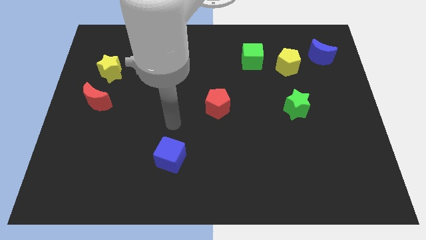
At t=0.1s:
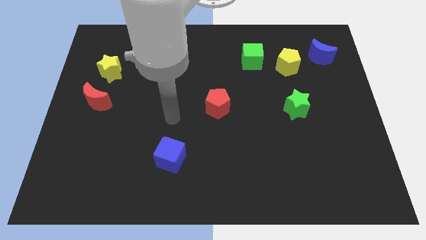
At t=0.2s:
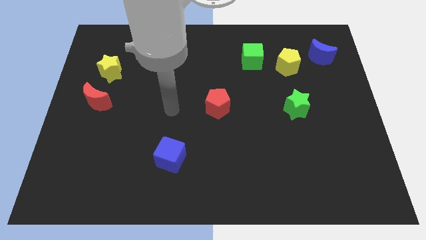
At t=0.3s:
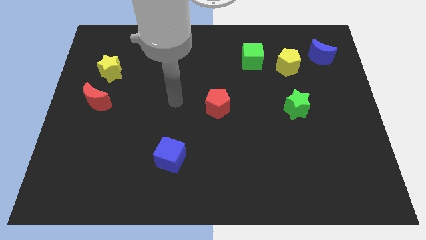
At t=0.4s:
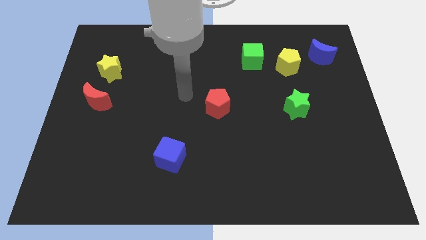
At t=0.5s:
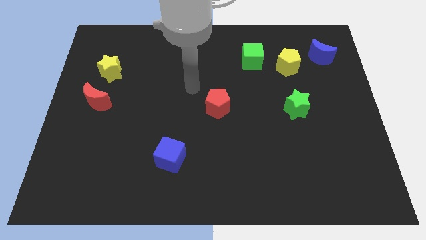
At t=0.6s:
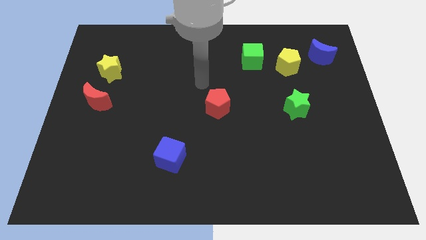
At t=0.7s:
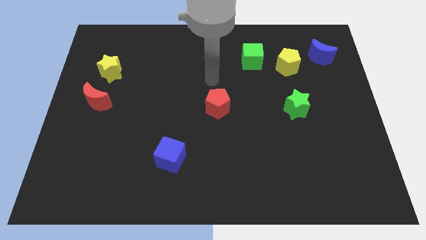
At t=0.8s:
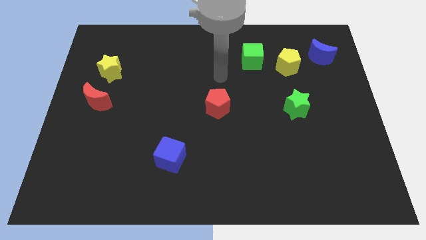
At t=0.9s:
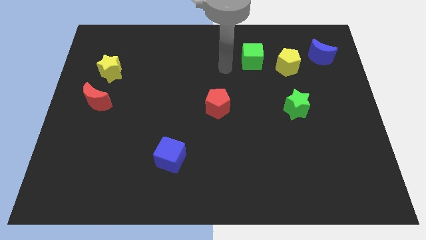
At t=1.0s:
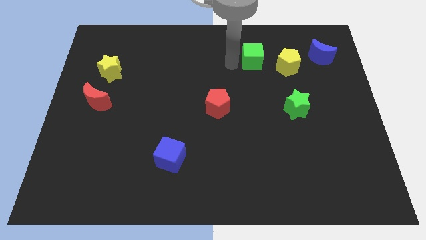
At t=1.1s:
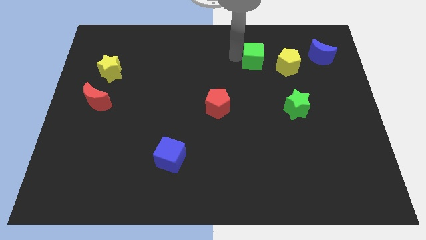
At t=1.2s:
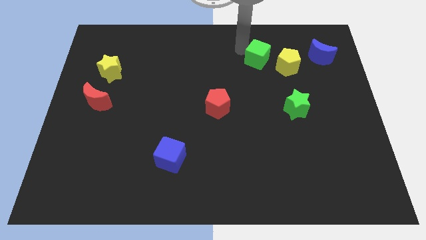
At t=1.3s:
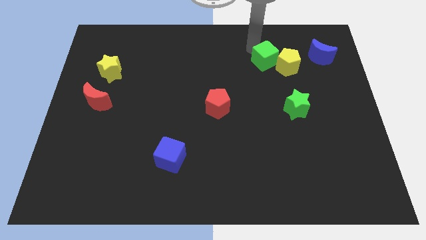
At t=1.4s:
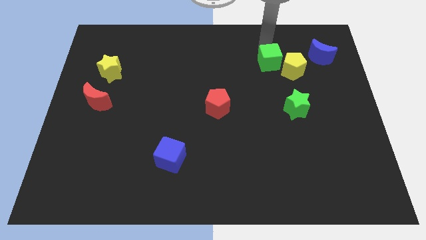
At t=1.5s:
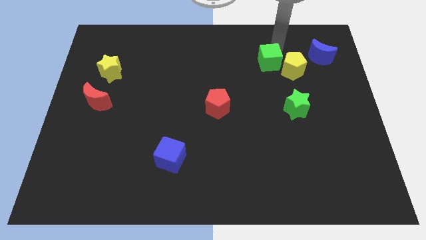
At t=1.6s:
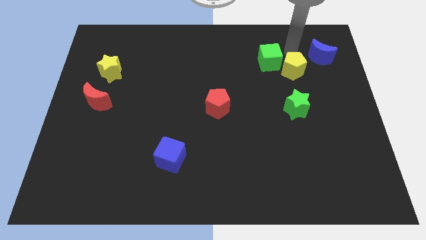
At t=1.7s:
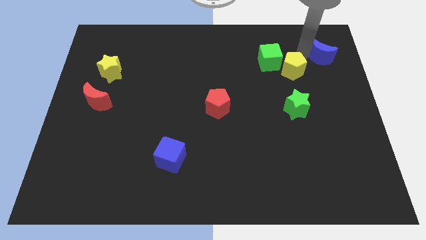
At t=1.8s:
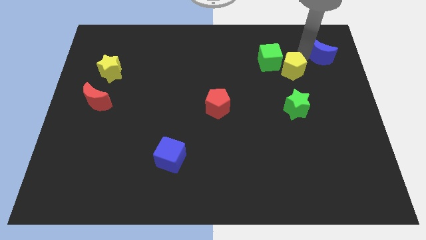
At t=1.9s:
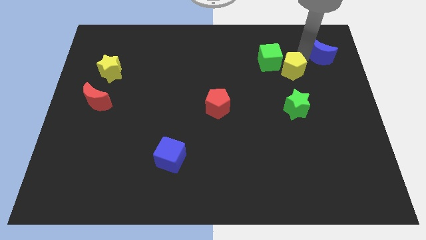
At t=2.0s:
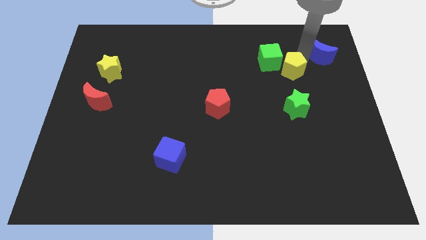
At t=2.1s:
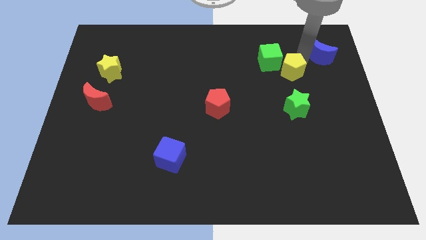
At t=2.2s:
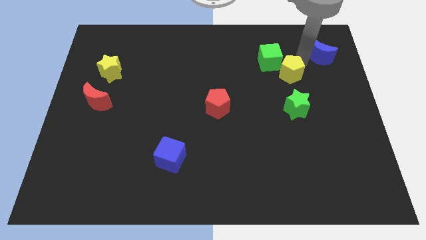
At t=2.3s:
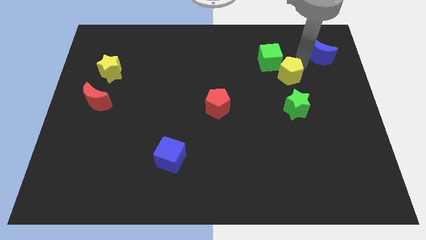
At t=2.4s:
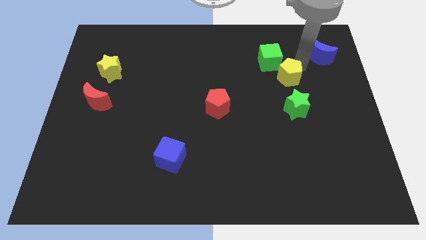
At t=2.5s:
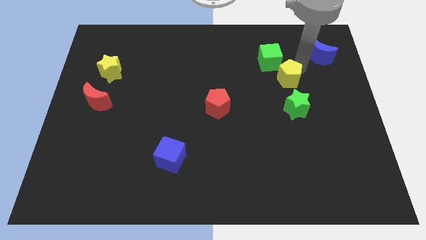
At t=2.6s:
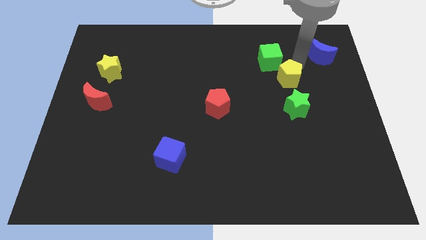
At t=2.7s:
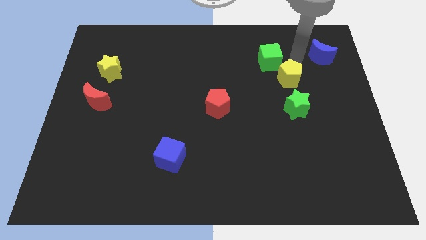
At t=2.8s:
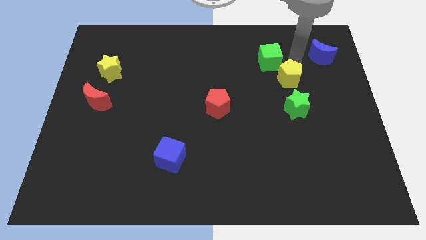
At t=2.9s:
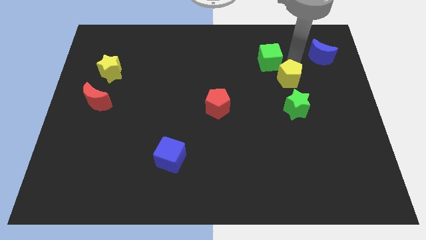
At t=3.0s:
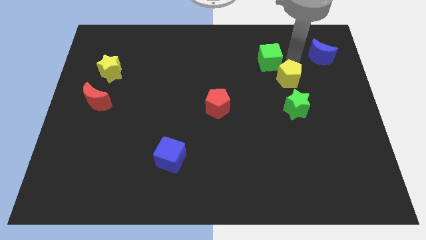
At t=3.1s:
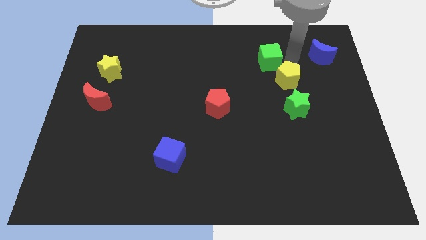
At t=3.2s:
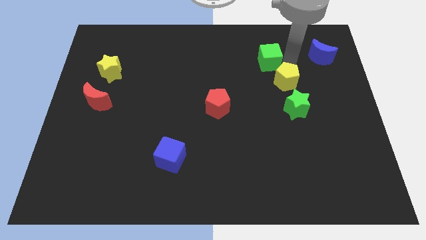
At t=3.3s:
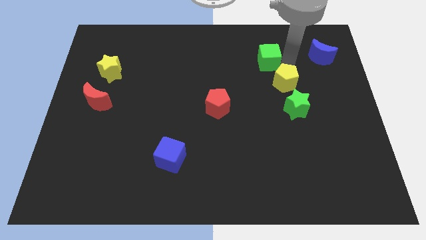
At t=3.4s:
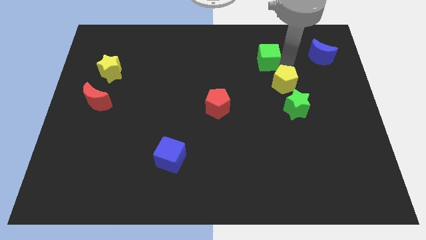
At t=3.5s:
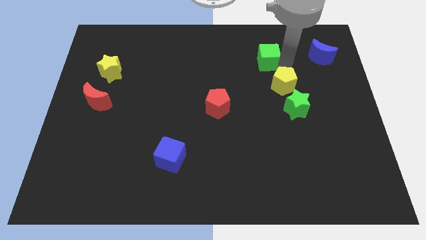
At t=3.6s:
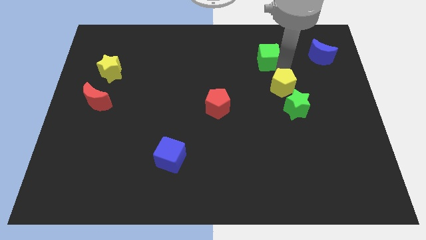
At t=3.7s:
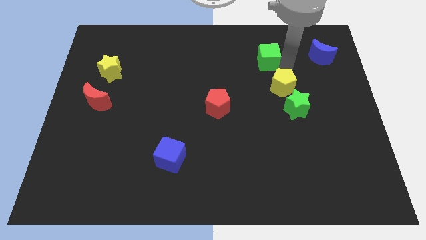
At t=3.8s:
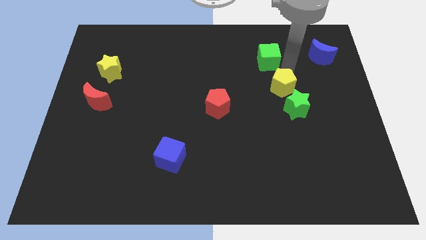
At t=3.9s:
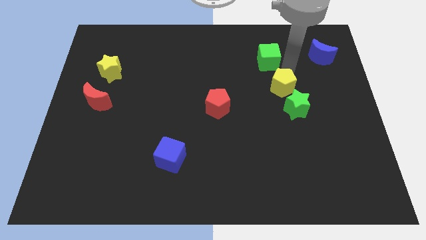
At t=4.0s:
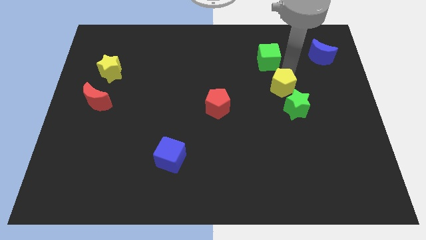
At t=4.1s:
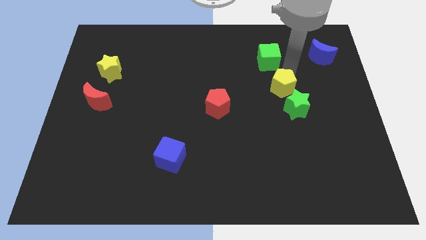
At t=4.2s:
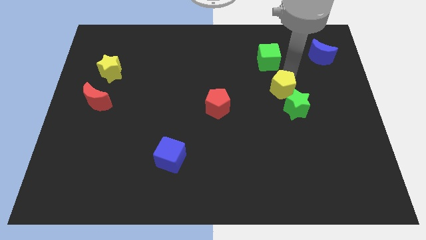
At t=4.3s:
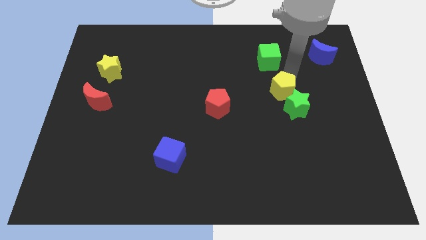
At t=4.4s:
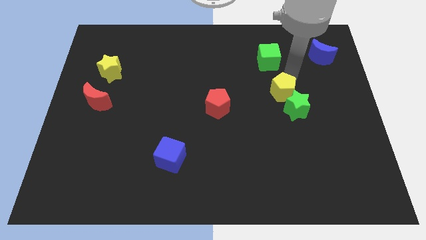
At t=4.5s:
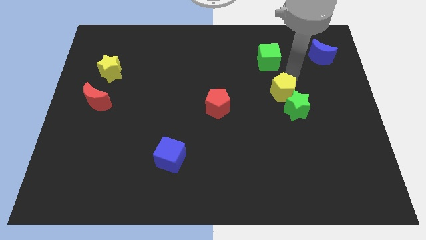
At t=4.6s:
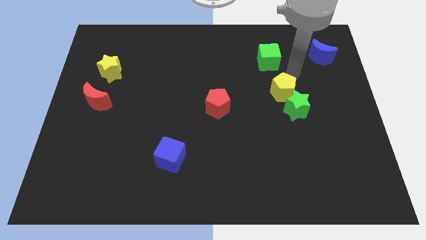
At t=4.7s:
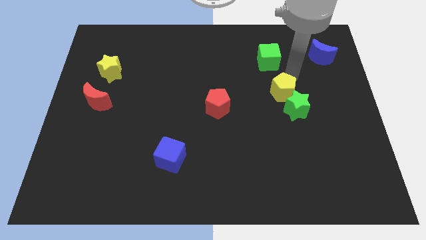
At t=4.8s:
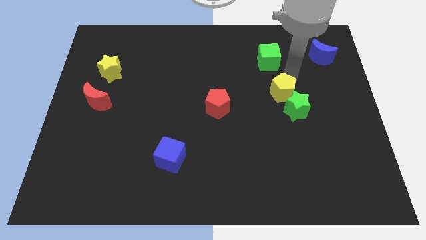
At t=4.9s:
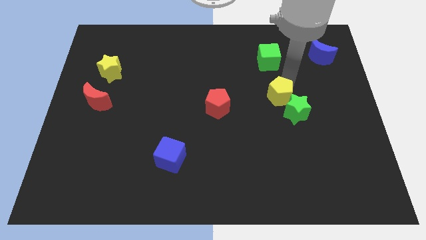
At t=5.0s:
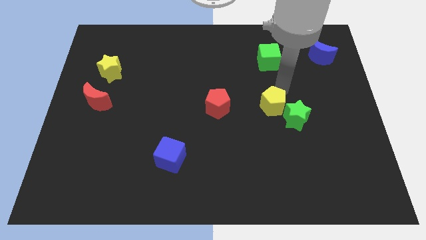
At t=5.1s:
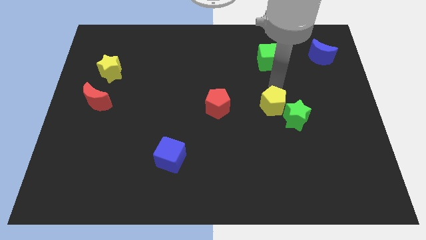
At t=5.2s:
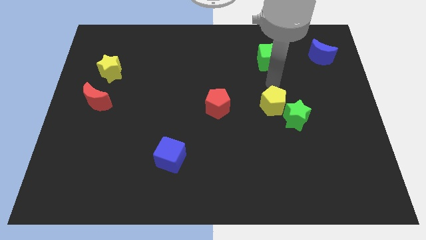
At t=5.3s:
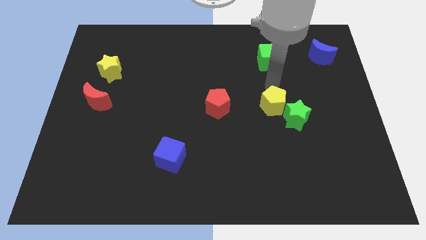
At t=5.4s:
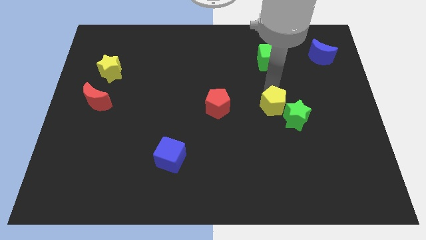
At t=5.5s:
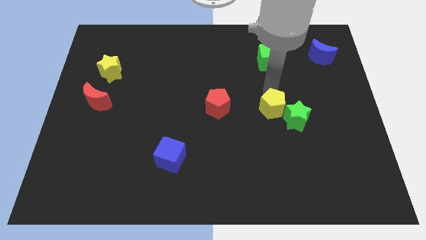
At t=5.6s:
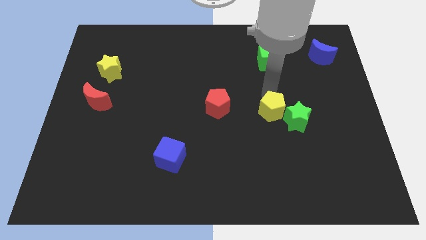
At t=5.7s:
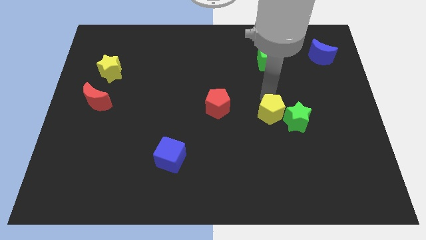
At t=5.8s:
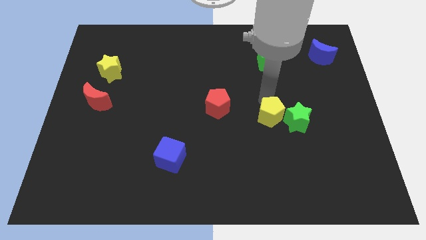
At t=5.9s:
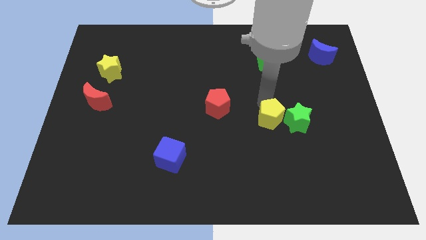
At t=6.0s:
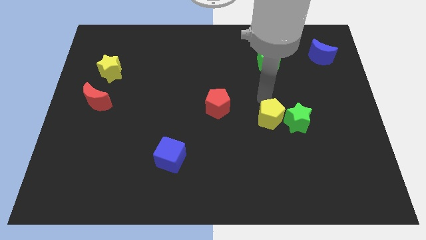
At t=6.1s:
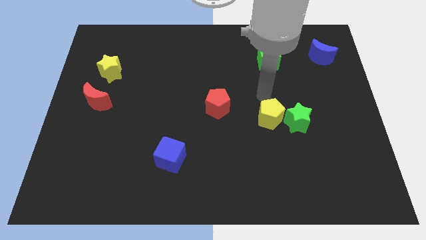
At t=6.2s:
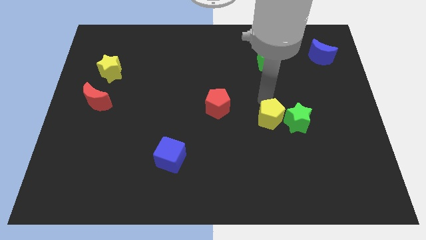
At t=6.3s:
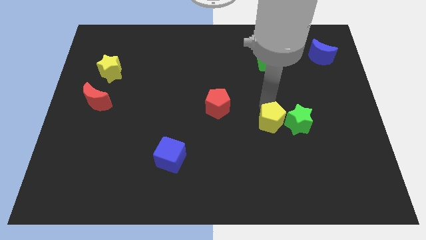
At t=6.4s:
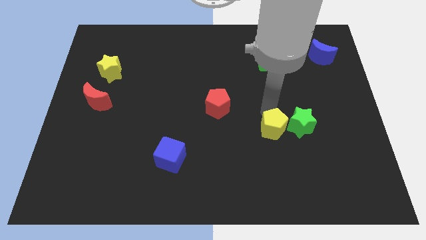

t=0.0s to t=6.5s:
put the yellow pentagon to the bottom left of the green star
